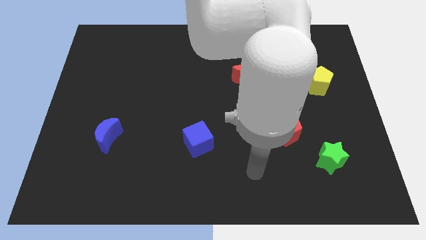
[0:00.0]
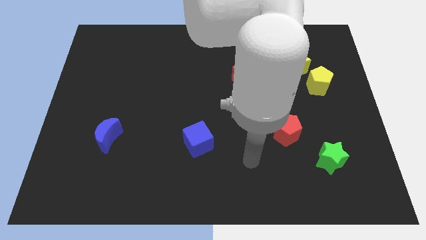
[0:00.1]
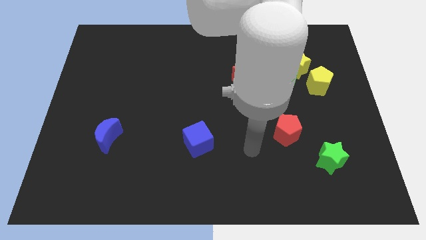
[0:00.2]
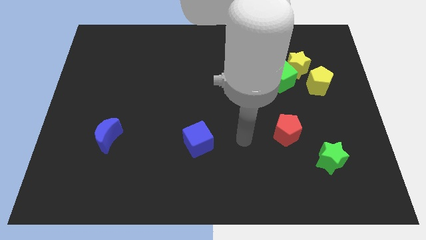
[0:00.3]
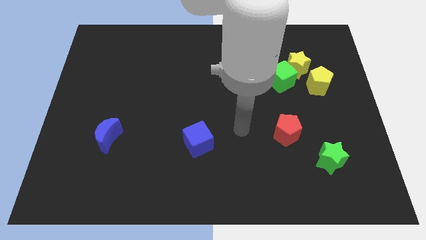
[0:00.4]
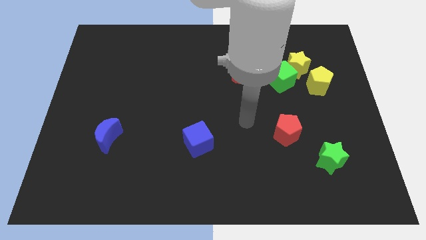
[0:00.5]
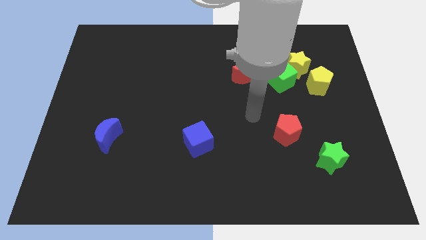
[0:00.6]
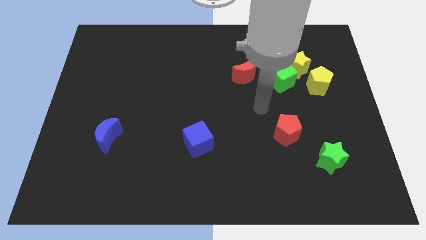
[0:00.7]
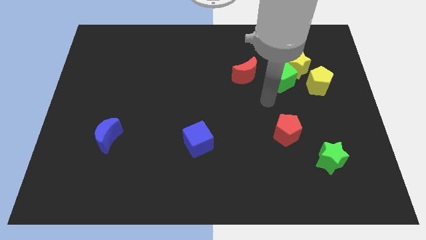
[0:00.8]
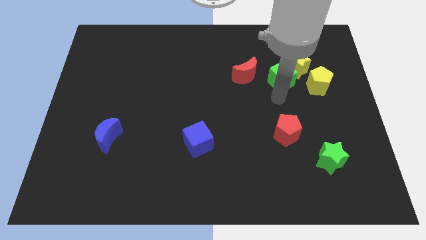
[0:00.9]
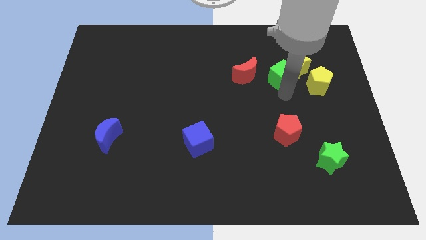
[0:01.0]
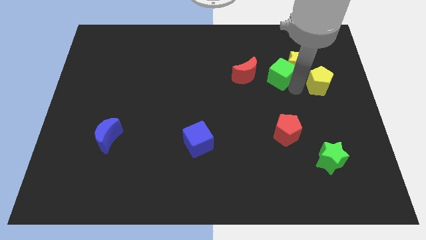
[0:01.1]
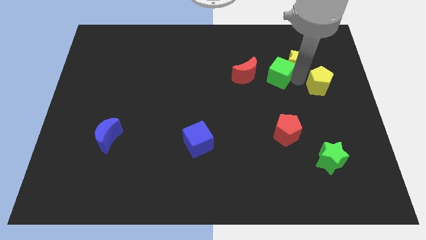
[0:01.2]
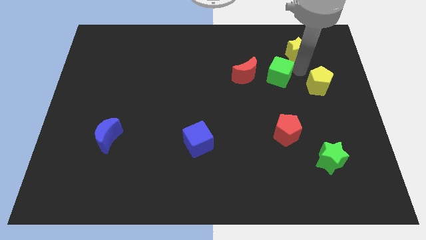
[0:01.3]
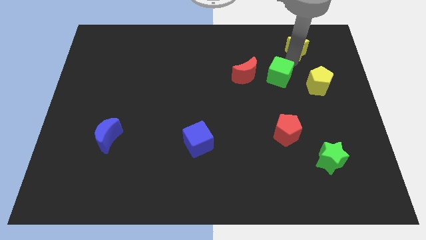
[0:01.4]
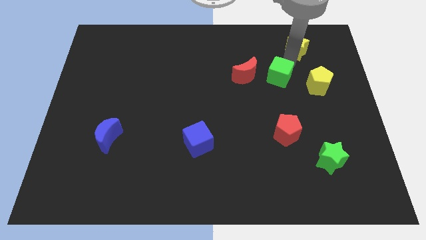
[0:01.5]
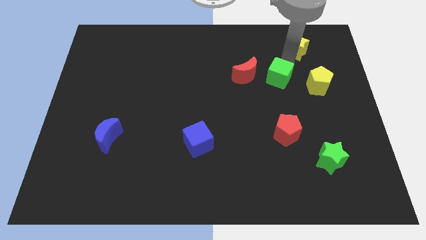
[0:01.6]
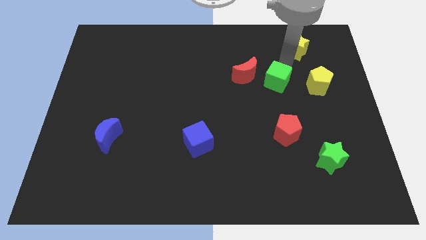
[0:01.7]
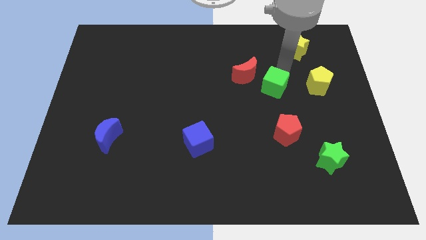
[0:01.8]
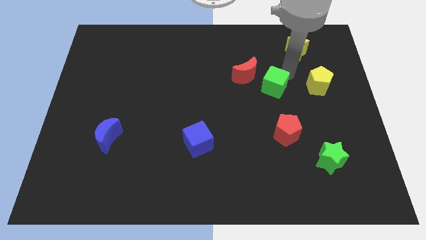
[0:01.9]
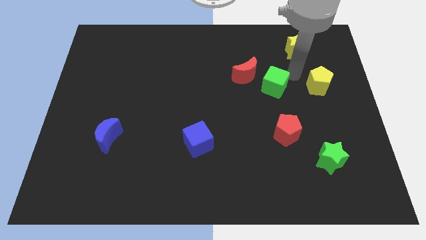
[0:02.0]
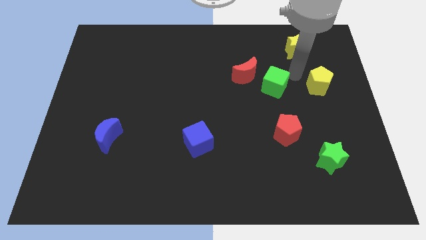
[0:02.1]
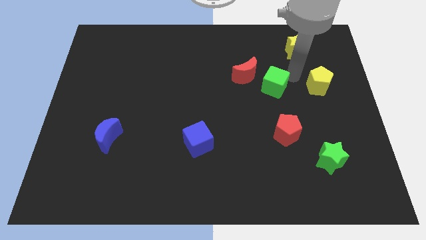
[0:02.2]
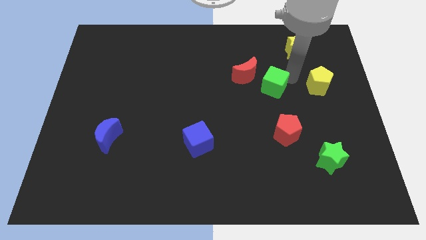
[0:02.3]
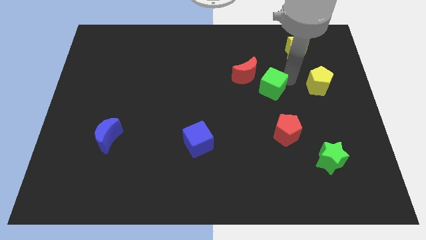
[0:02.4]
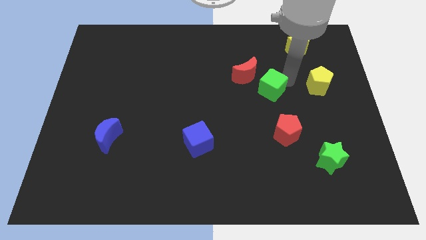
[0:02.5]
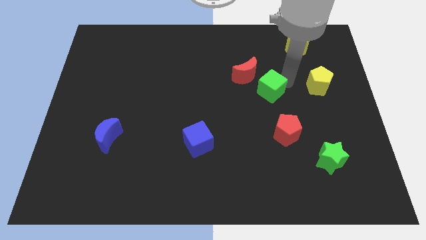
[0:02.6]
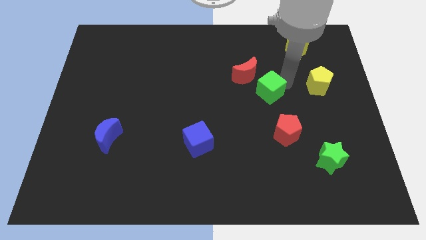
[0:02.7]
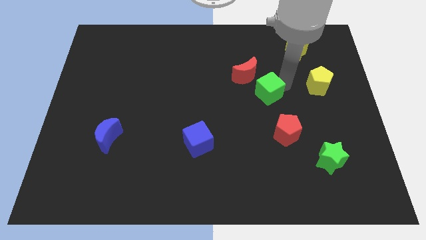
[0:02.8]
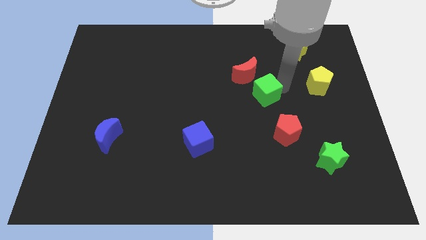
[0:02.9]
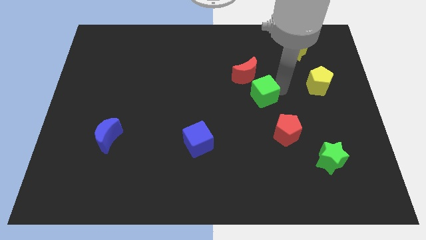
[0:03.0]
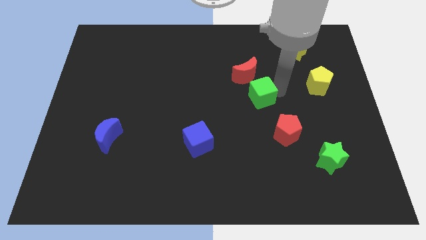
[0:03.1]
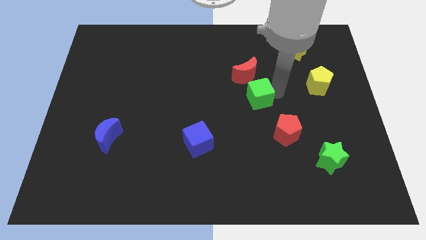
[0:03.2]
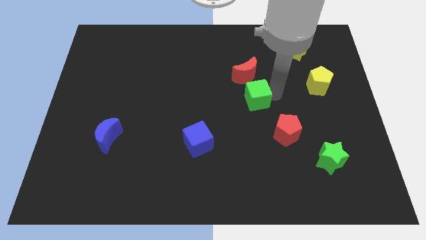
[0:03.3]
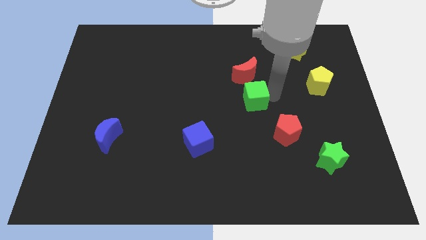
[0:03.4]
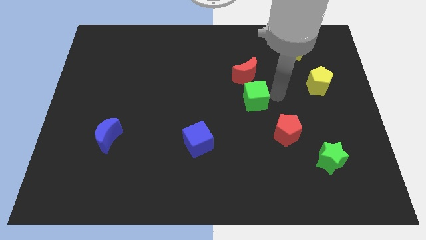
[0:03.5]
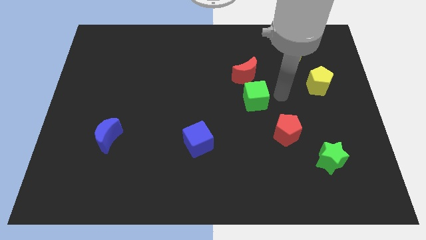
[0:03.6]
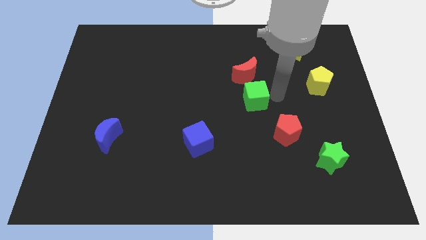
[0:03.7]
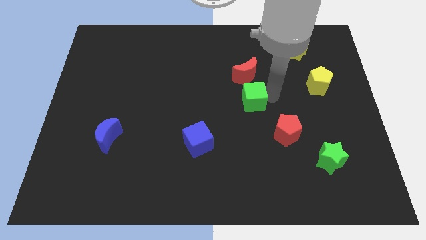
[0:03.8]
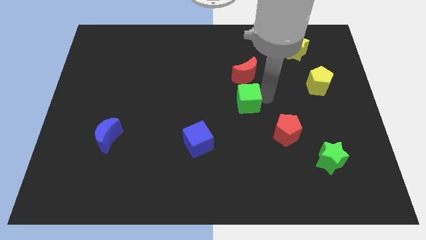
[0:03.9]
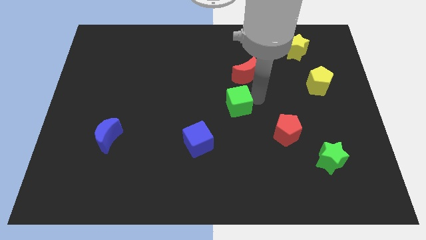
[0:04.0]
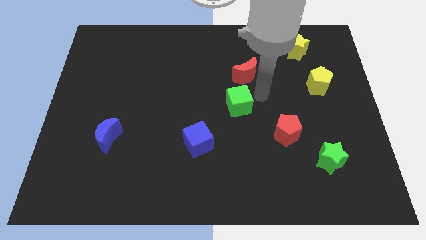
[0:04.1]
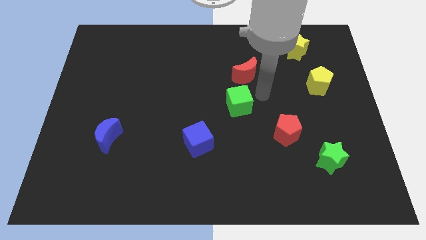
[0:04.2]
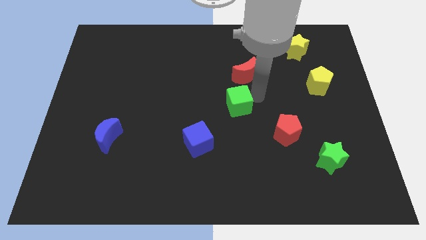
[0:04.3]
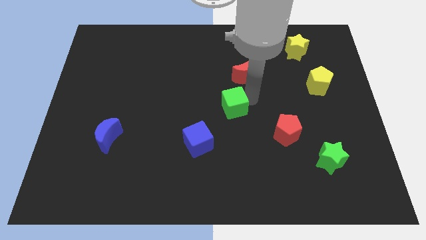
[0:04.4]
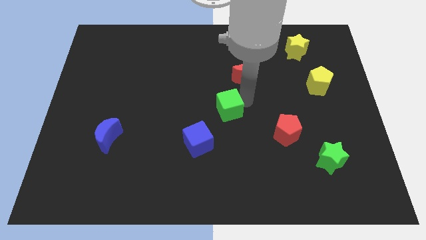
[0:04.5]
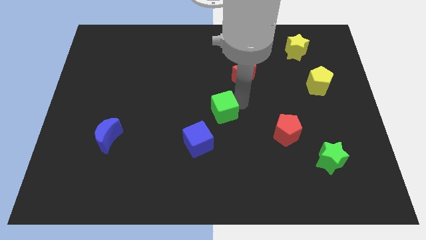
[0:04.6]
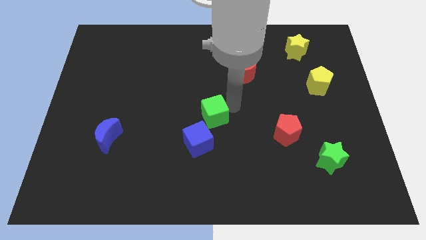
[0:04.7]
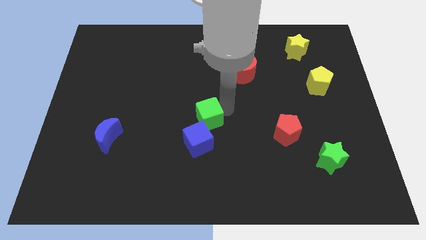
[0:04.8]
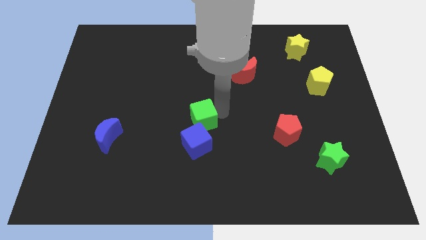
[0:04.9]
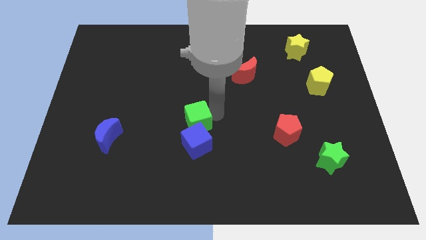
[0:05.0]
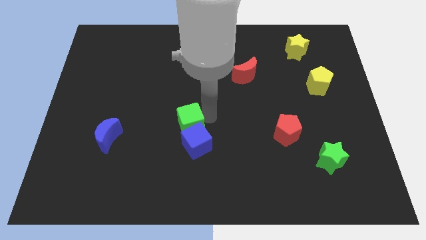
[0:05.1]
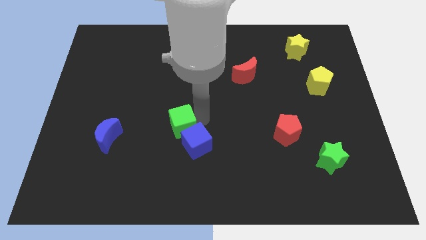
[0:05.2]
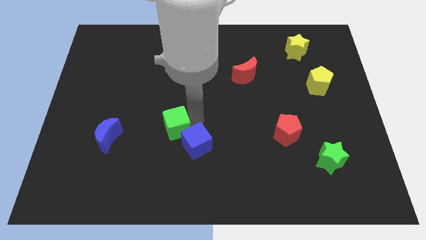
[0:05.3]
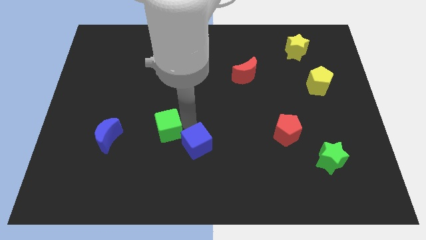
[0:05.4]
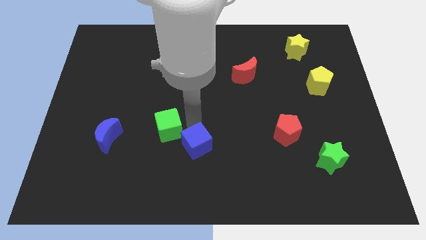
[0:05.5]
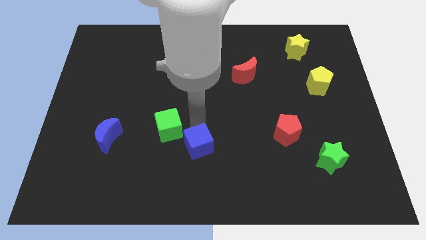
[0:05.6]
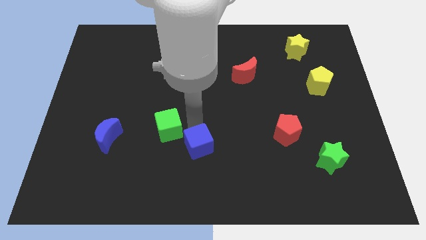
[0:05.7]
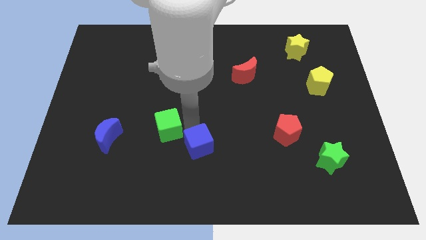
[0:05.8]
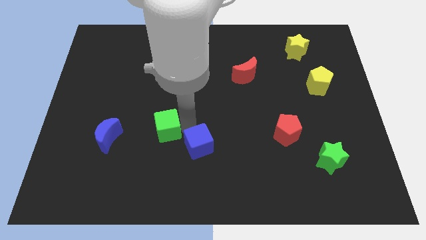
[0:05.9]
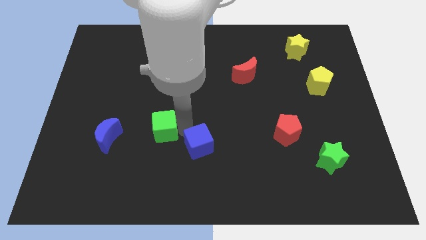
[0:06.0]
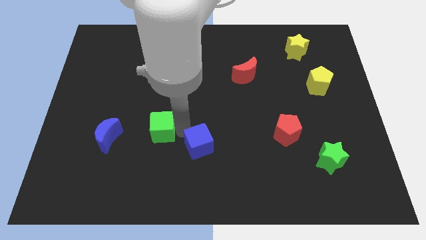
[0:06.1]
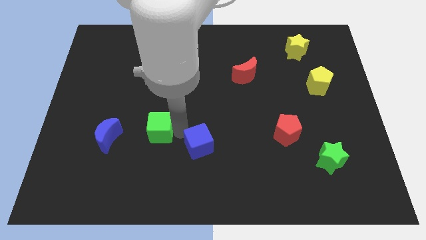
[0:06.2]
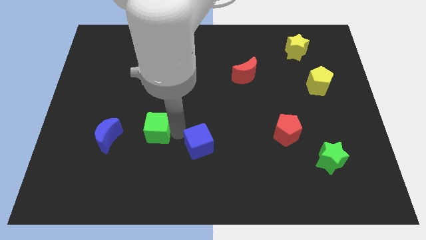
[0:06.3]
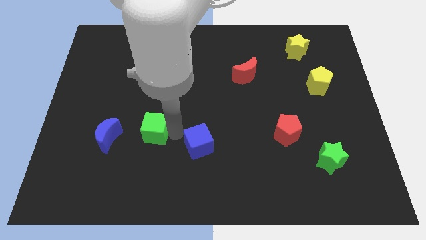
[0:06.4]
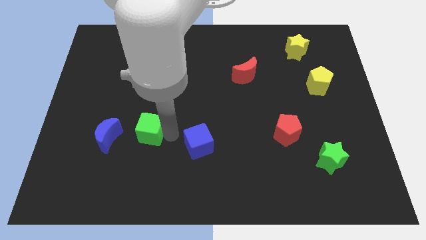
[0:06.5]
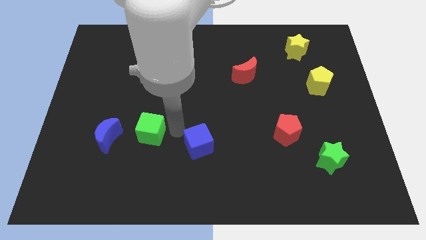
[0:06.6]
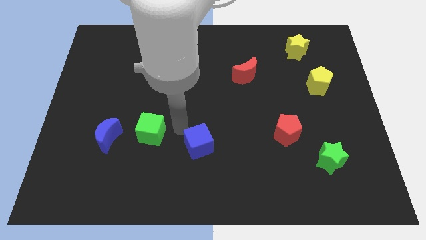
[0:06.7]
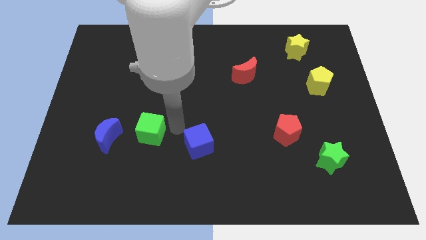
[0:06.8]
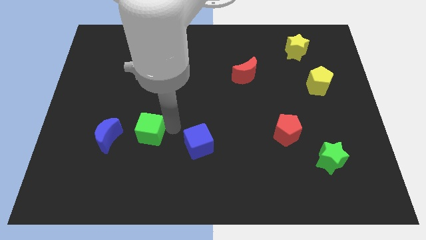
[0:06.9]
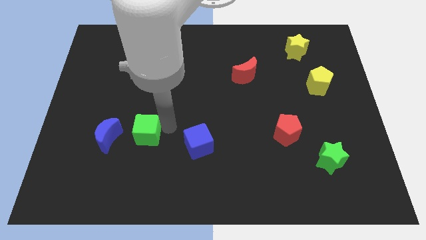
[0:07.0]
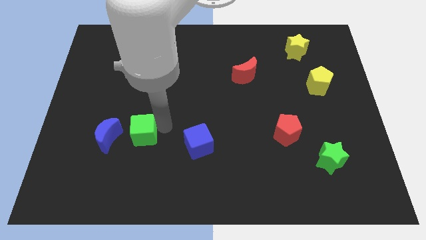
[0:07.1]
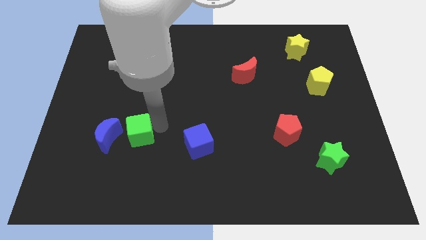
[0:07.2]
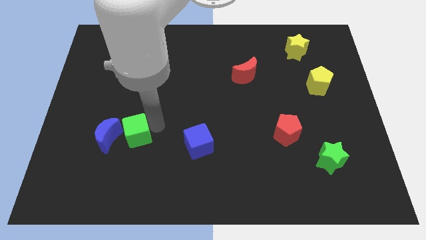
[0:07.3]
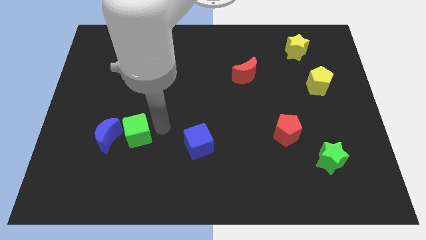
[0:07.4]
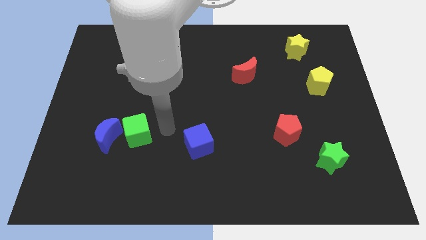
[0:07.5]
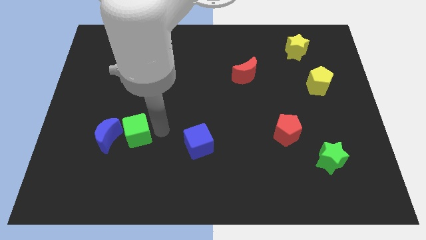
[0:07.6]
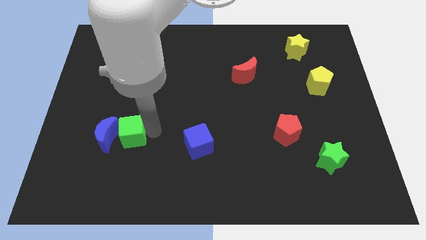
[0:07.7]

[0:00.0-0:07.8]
put the green cube next to the blue moon

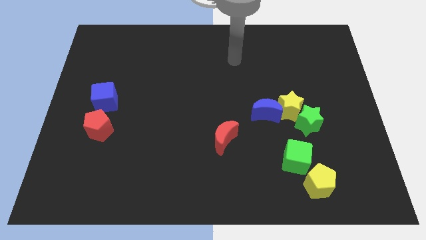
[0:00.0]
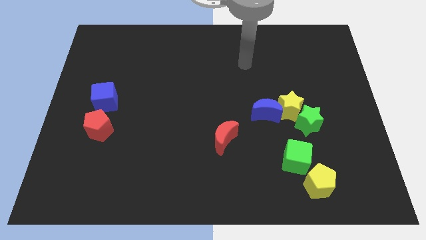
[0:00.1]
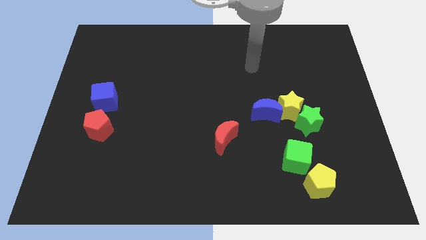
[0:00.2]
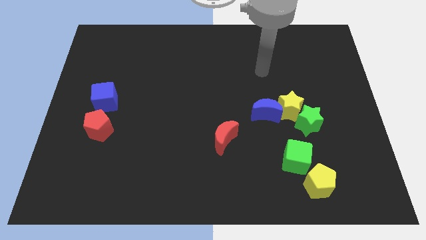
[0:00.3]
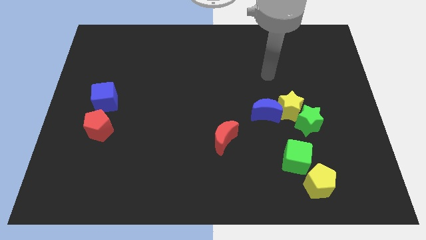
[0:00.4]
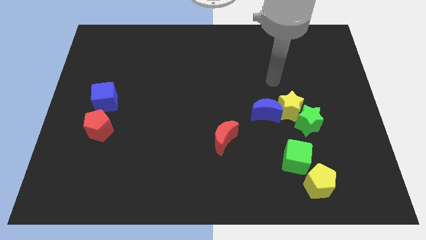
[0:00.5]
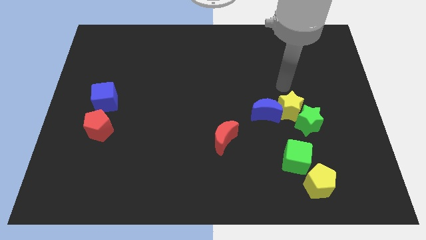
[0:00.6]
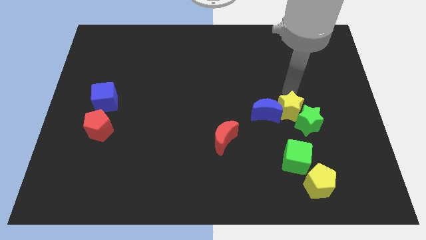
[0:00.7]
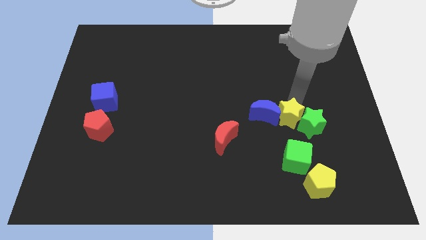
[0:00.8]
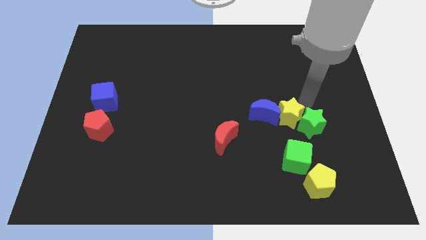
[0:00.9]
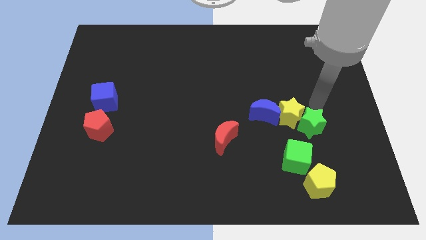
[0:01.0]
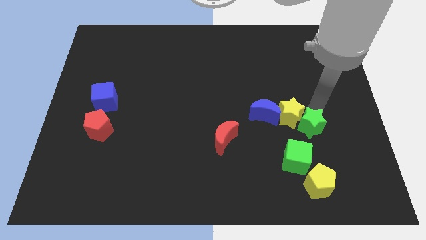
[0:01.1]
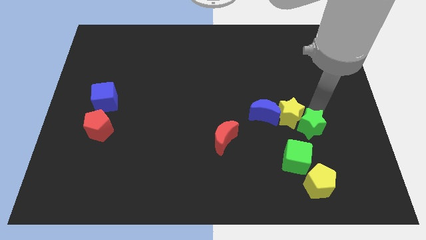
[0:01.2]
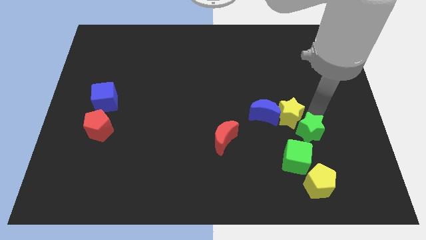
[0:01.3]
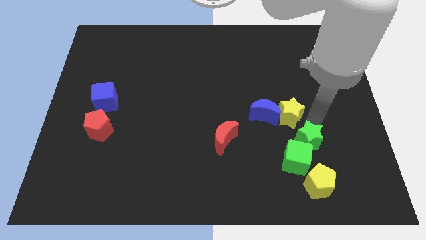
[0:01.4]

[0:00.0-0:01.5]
push the green star to the green cube
